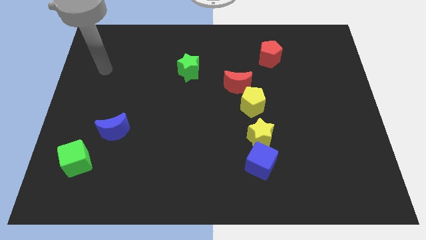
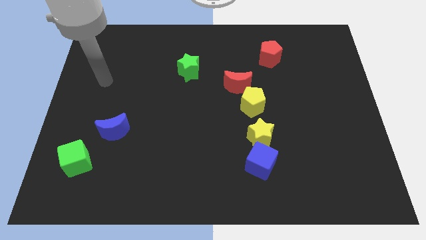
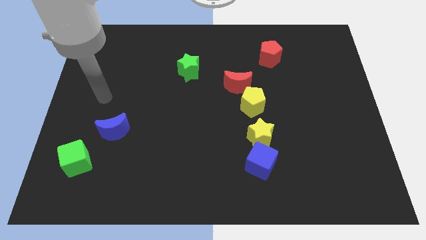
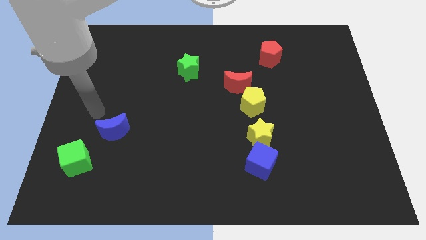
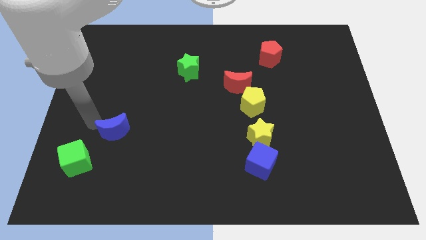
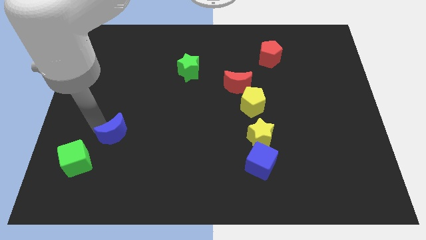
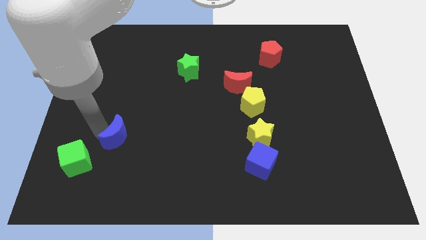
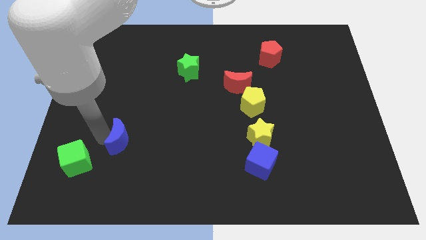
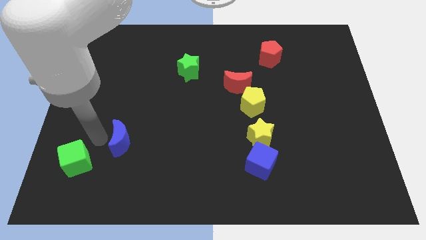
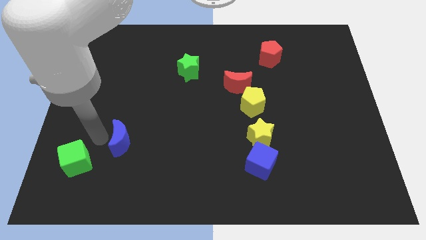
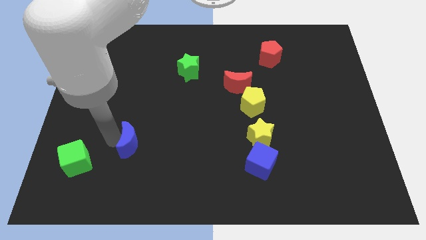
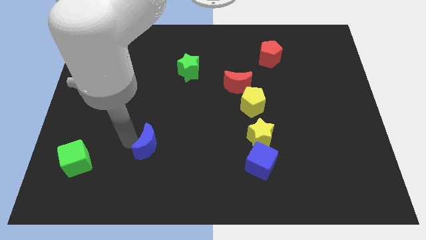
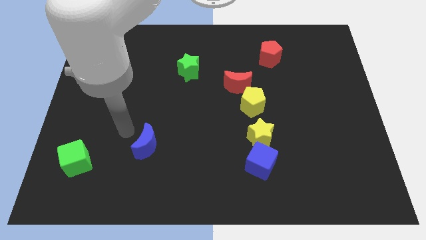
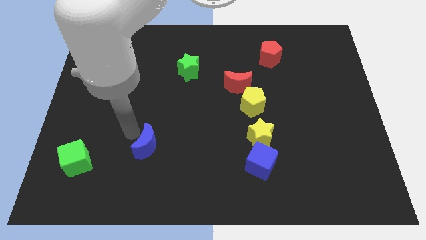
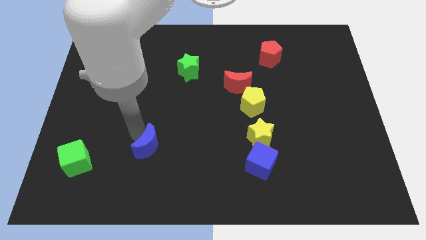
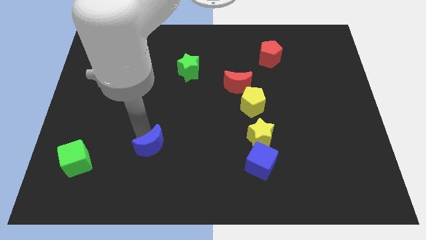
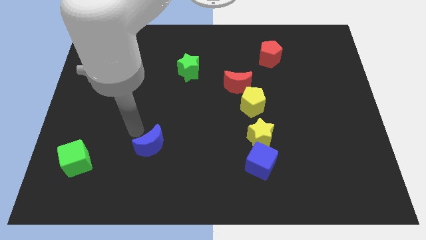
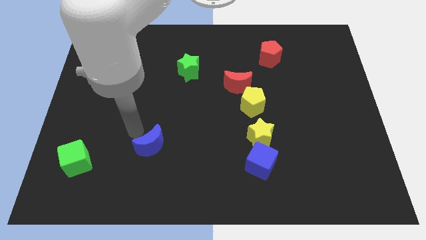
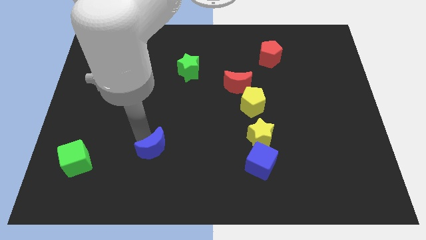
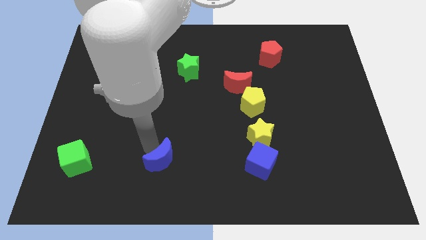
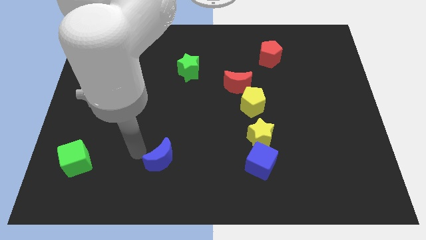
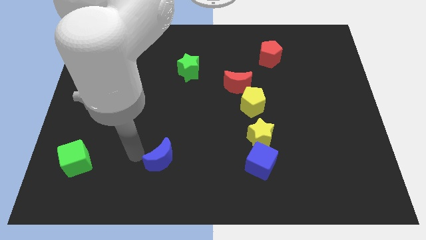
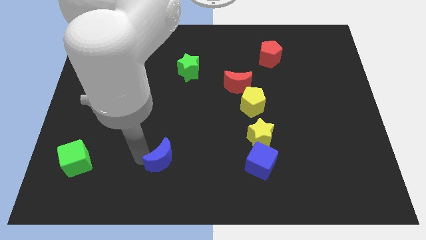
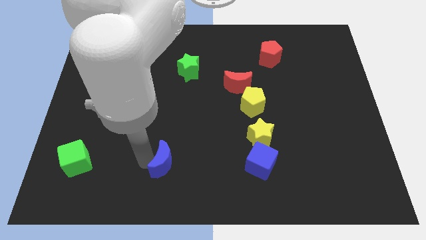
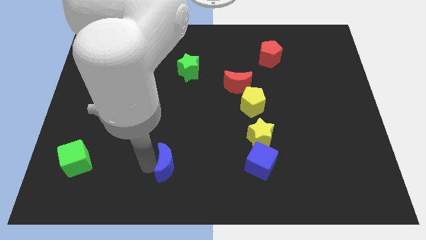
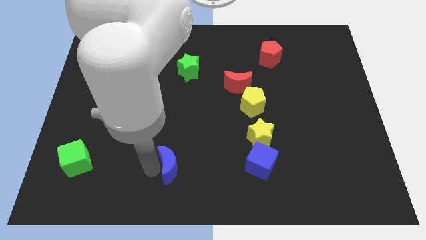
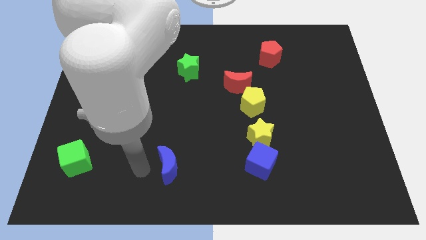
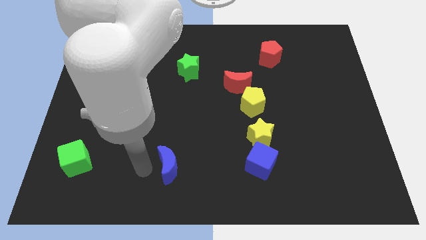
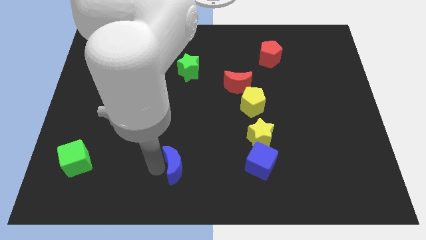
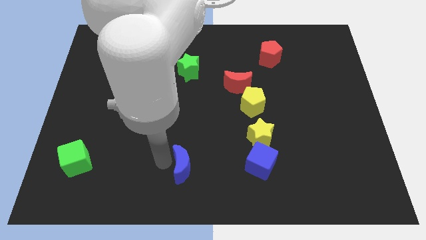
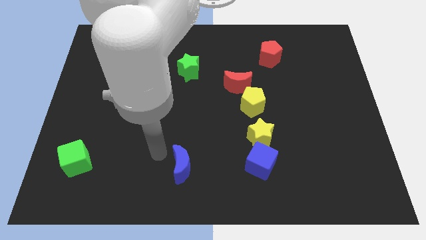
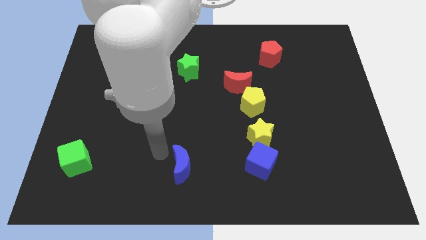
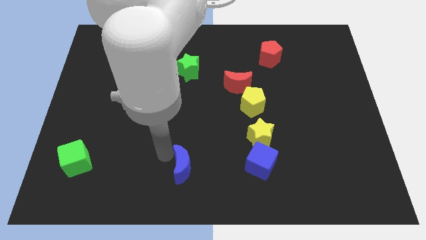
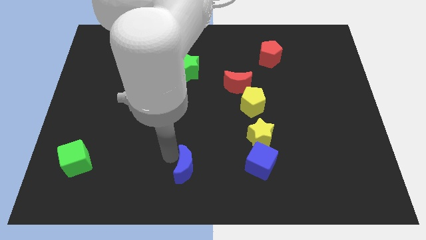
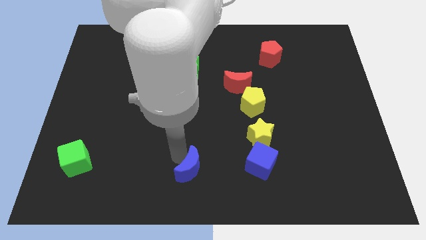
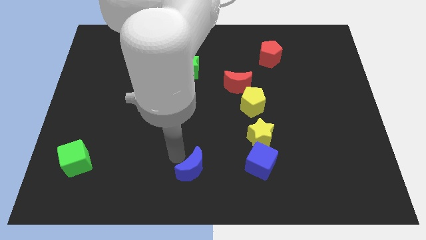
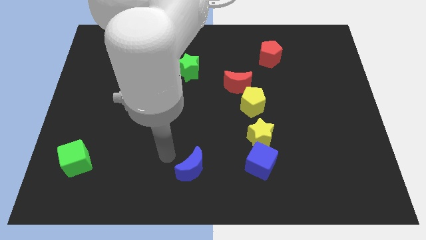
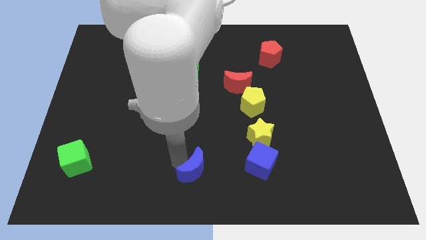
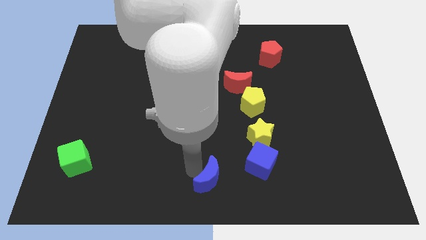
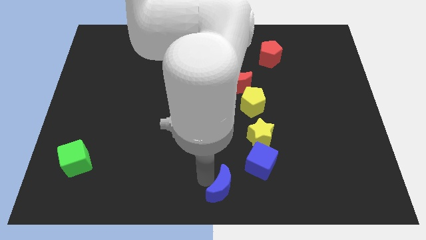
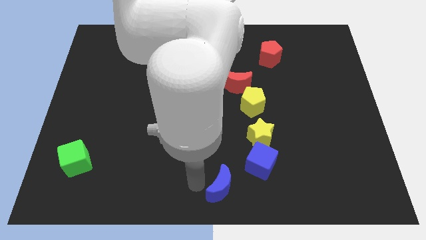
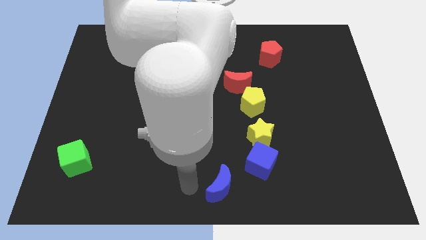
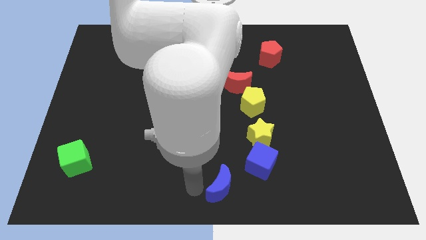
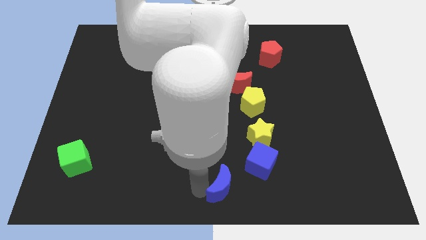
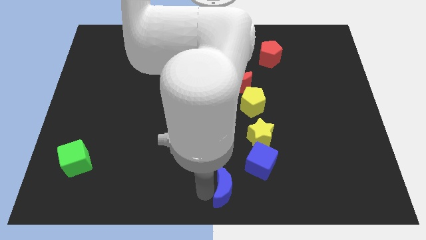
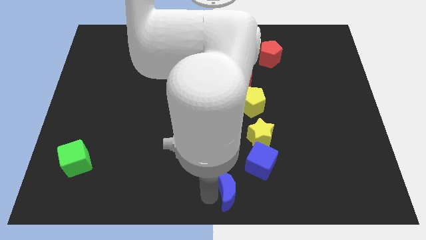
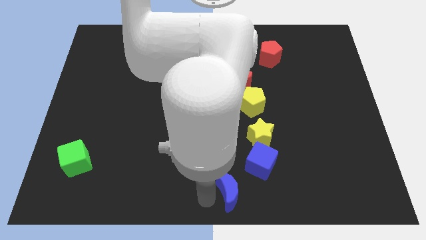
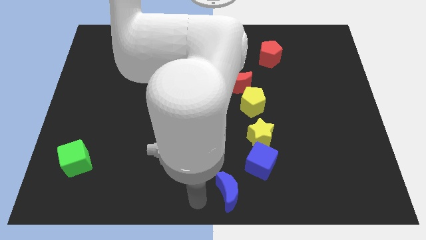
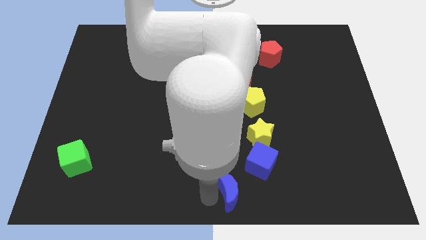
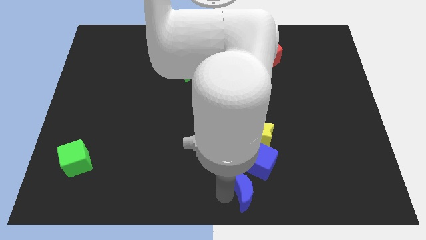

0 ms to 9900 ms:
move the blue moon to the bottom side of the yellow star

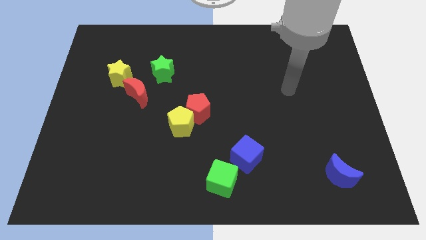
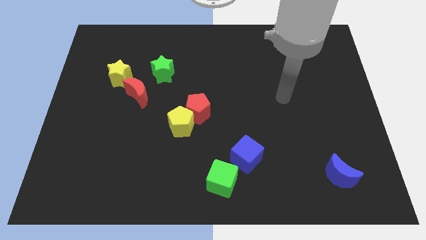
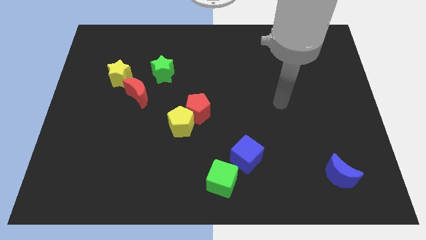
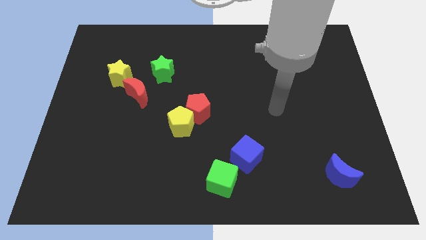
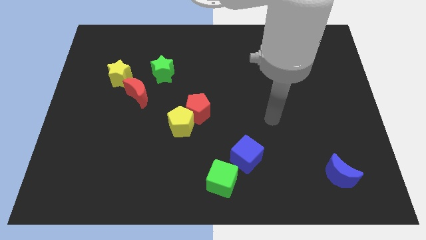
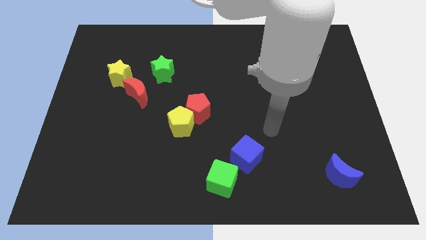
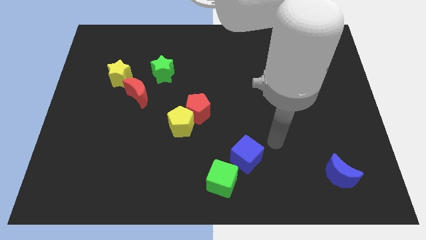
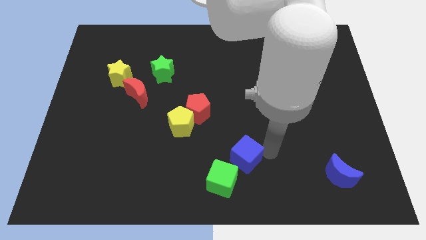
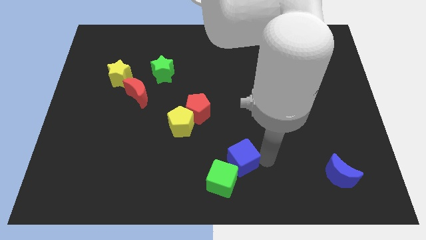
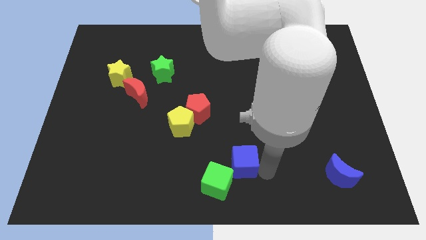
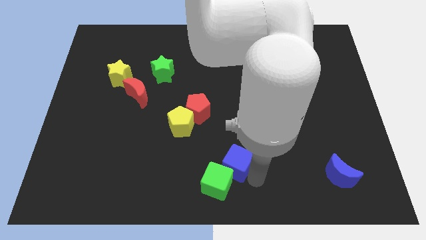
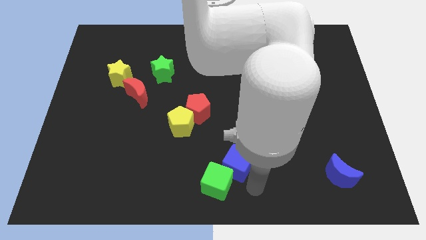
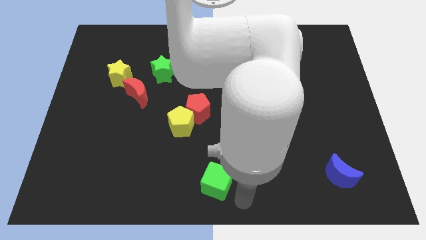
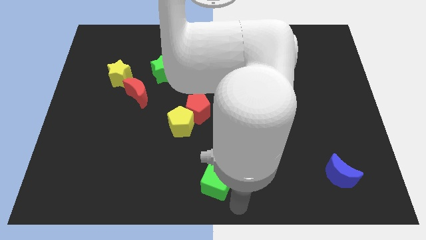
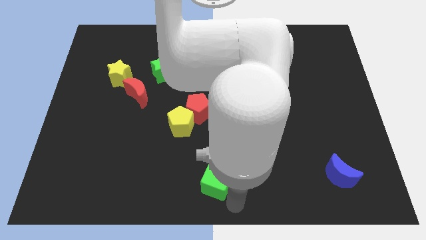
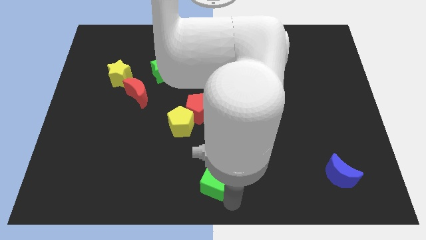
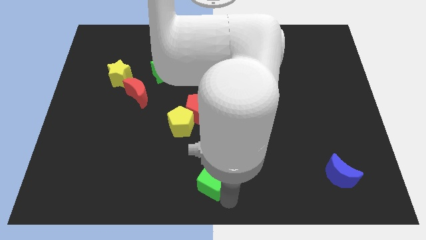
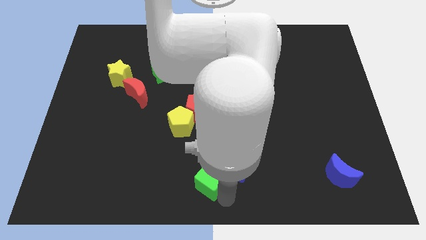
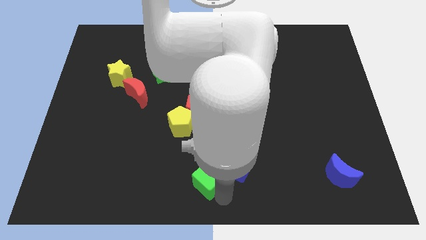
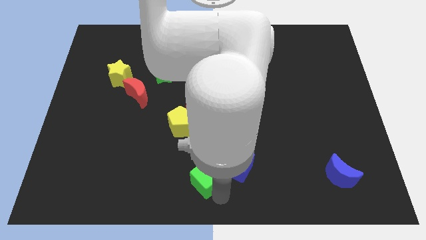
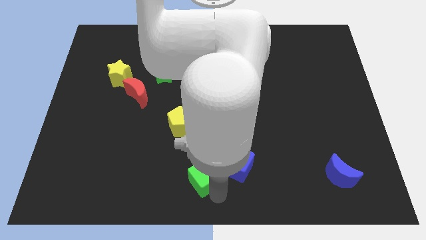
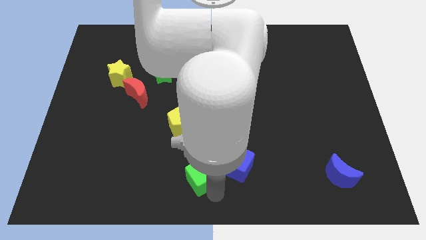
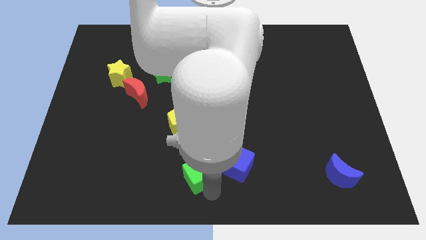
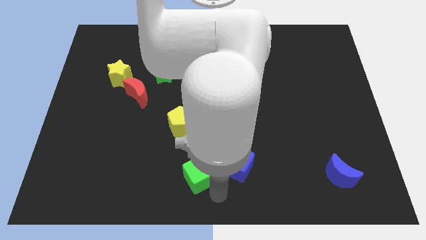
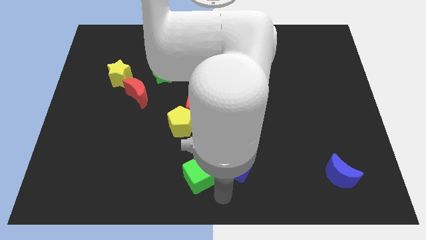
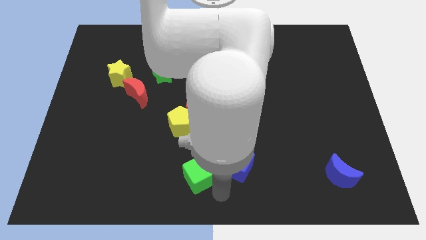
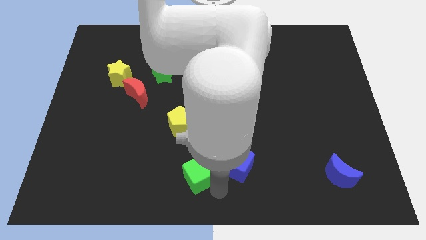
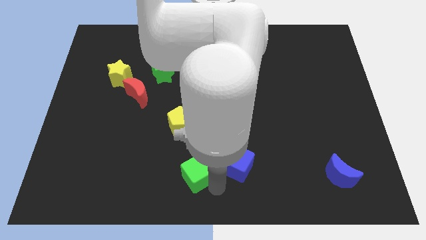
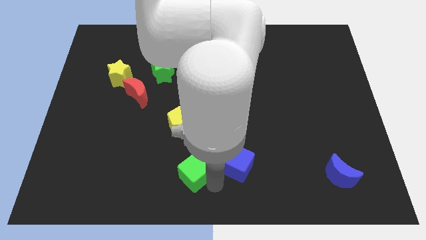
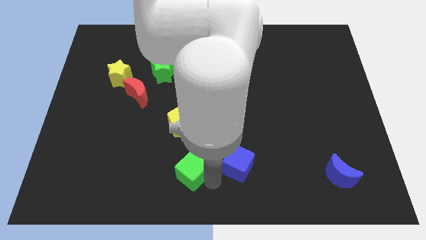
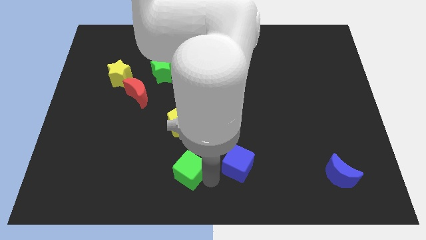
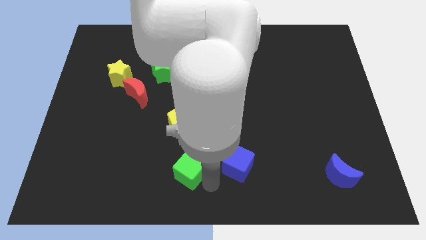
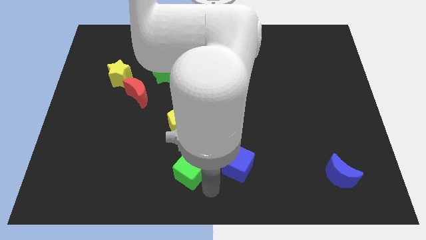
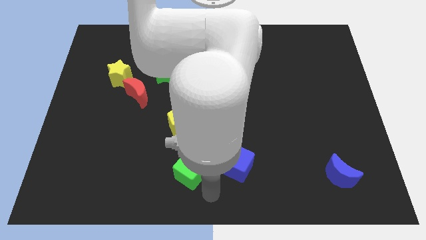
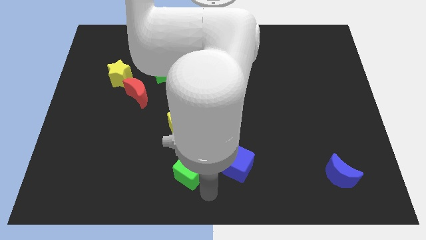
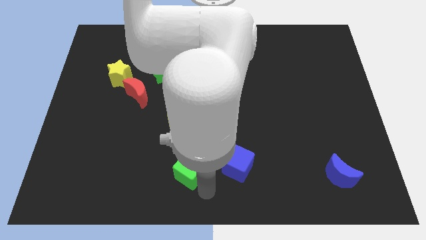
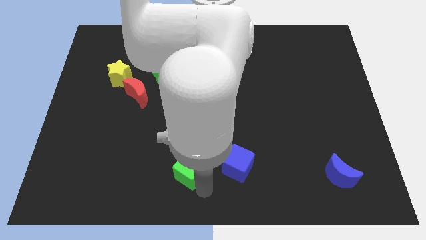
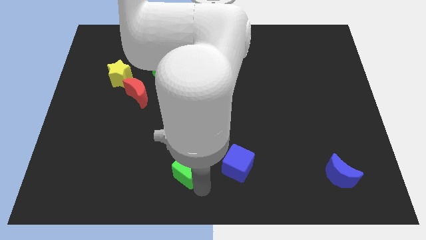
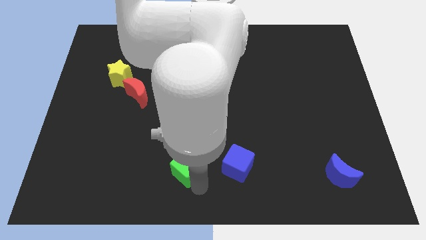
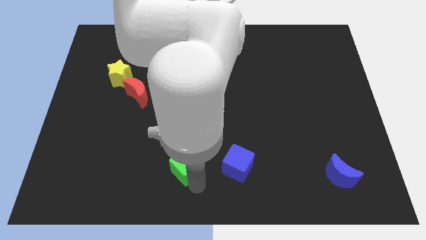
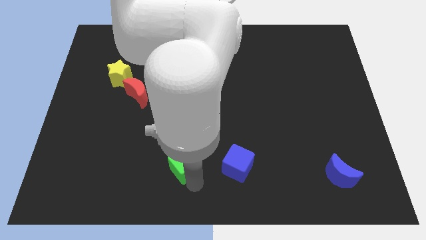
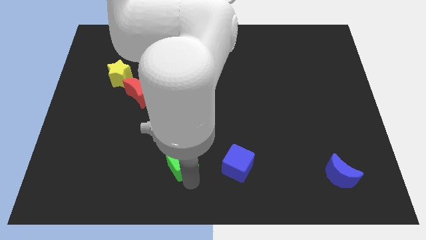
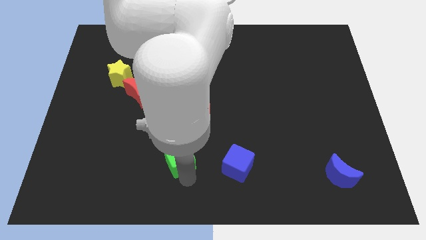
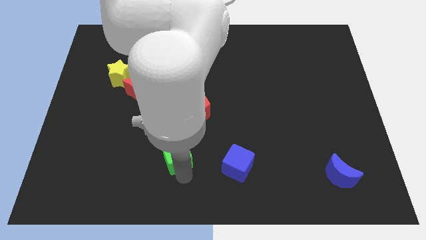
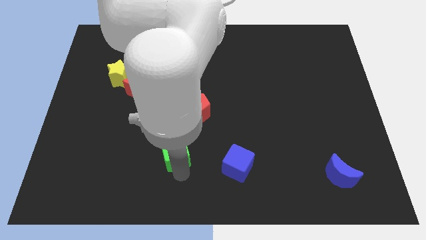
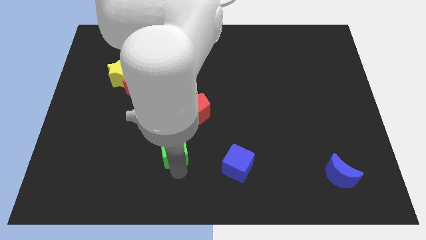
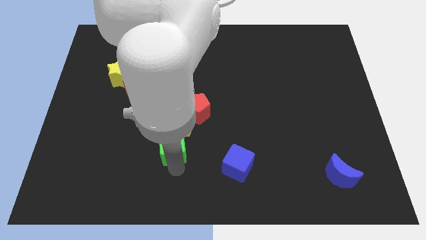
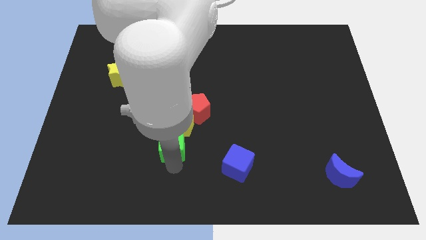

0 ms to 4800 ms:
push the green cube diagonally down and to the left of the red pentagon
